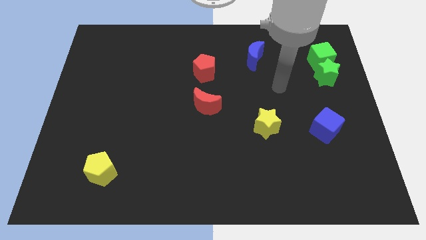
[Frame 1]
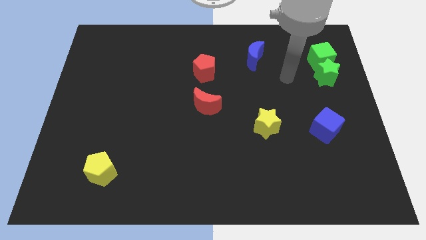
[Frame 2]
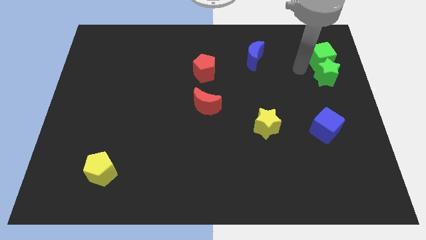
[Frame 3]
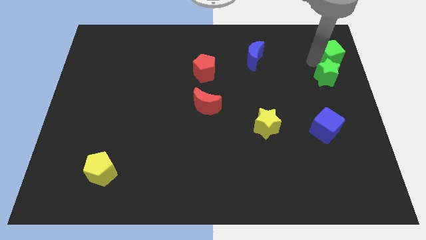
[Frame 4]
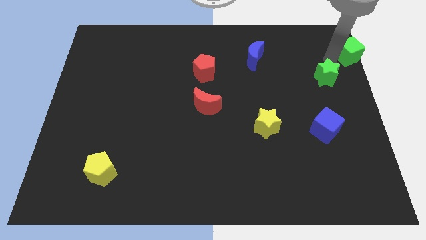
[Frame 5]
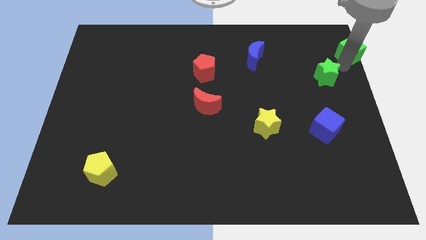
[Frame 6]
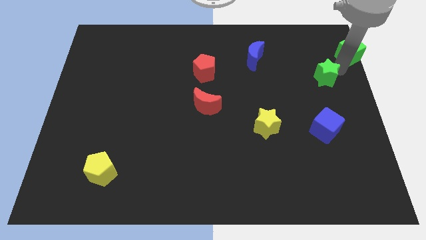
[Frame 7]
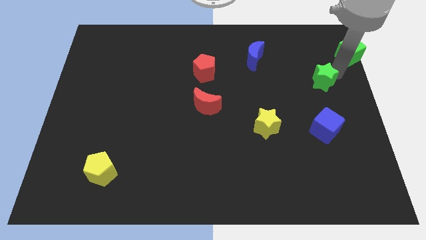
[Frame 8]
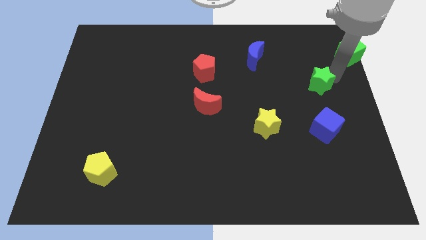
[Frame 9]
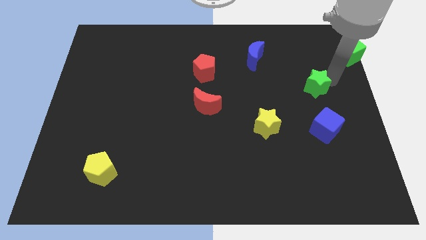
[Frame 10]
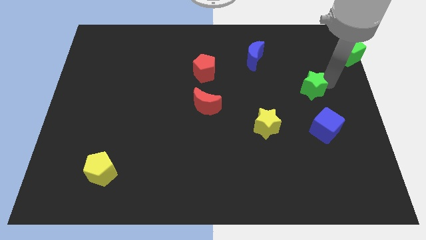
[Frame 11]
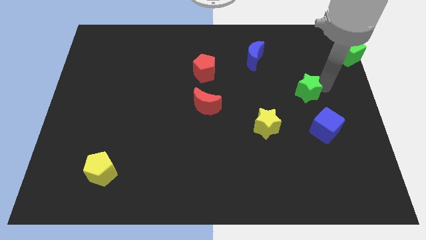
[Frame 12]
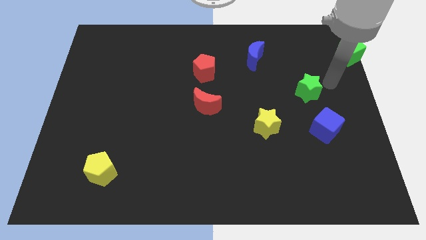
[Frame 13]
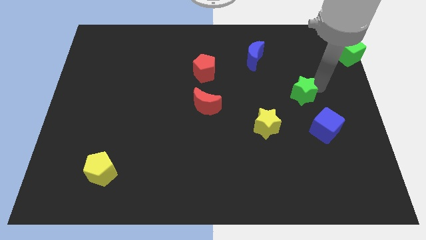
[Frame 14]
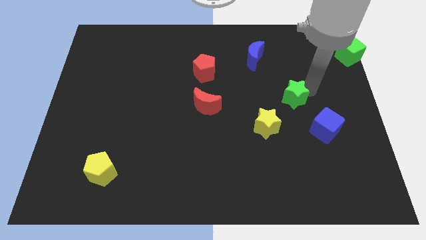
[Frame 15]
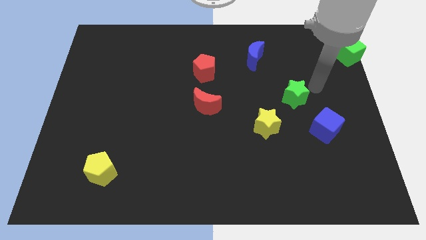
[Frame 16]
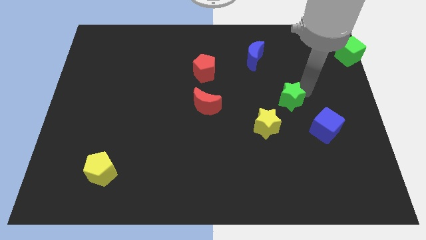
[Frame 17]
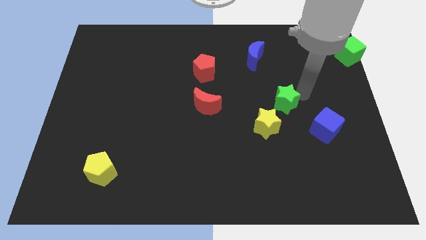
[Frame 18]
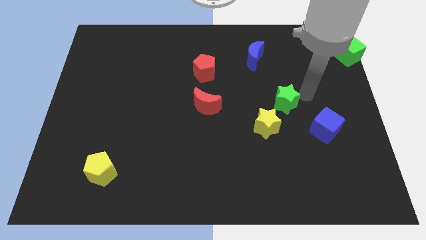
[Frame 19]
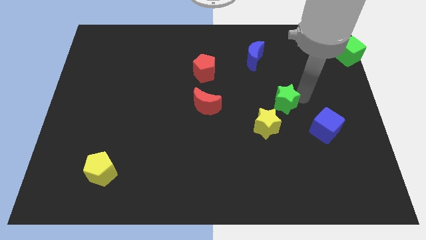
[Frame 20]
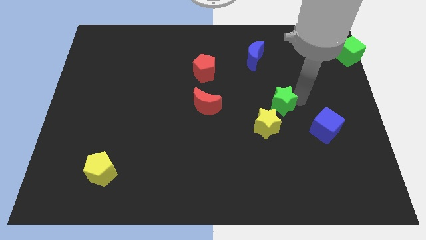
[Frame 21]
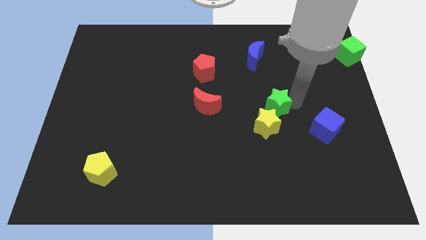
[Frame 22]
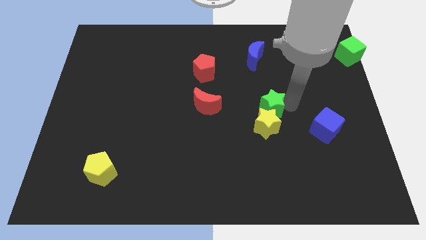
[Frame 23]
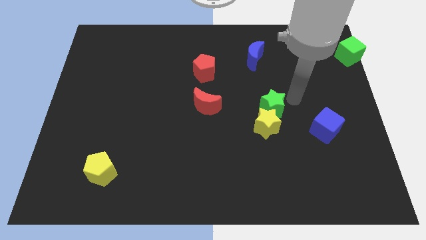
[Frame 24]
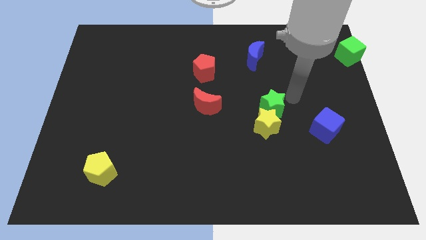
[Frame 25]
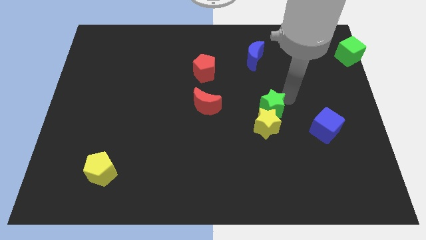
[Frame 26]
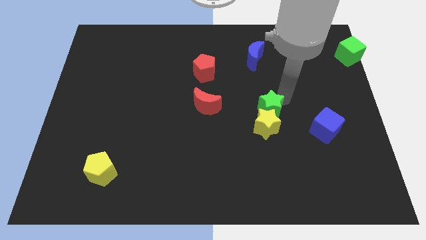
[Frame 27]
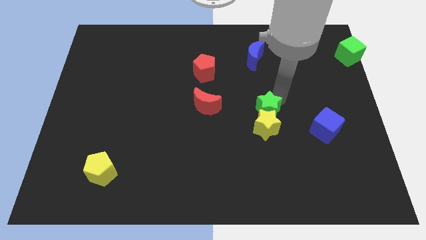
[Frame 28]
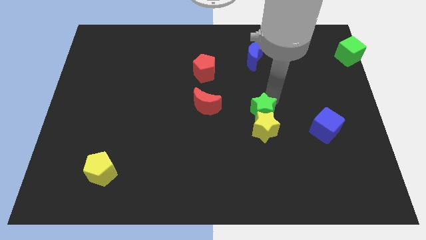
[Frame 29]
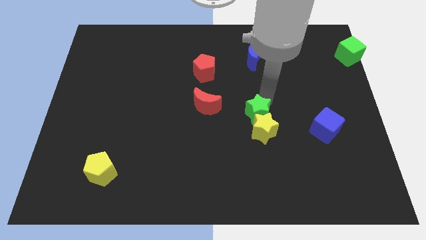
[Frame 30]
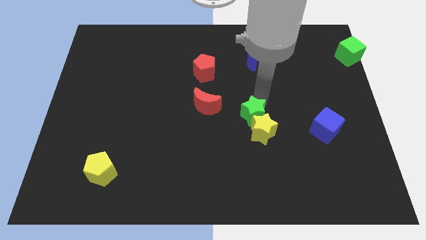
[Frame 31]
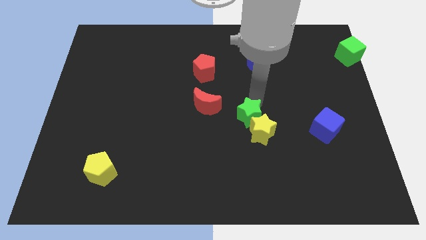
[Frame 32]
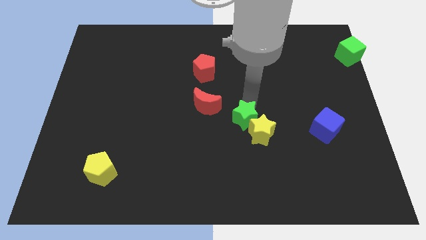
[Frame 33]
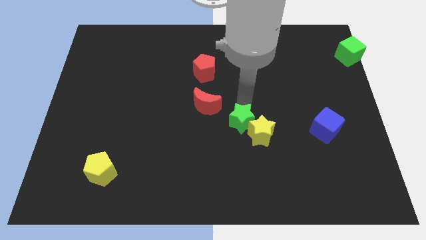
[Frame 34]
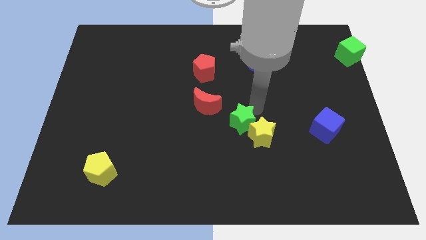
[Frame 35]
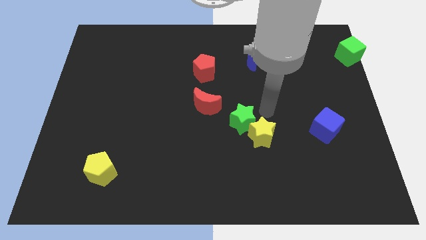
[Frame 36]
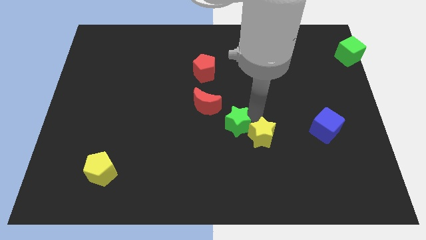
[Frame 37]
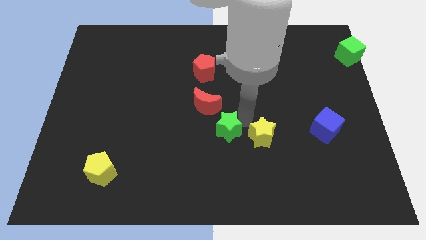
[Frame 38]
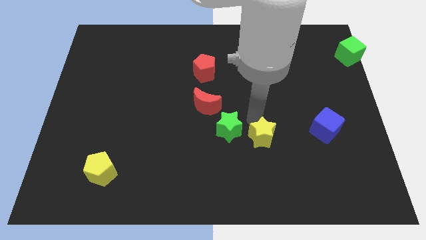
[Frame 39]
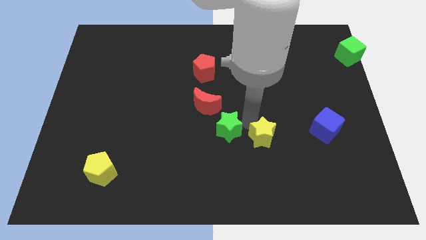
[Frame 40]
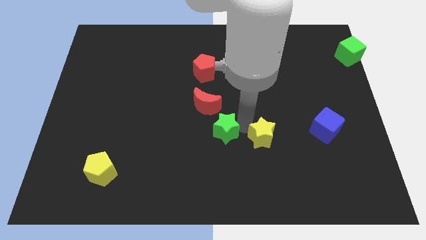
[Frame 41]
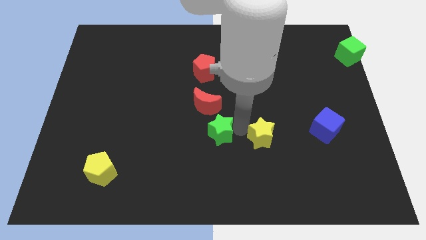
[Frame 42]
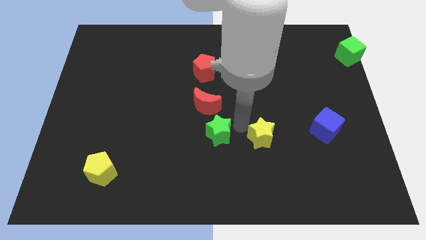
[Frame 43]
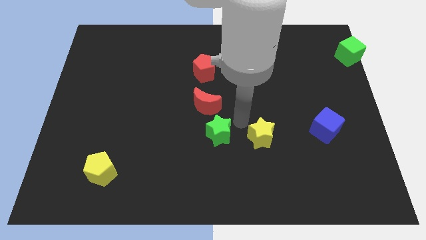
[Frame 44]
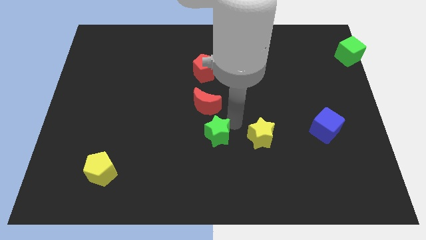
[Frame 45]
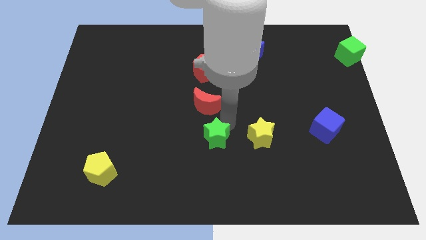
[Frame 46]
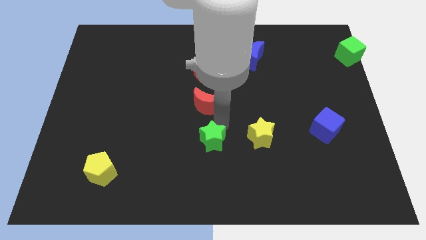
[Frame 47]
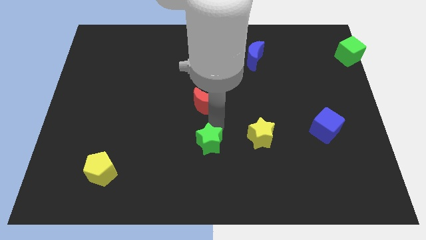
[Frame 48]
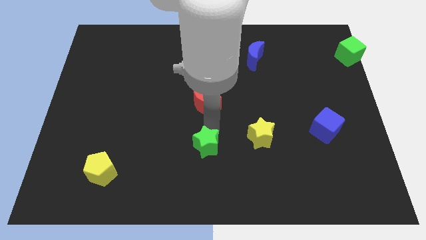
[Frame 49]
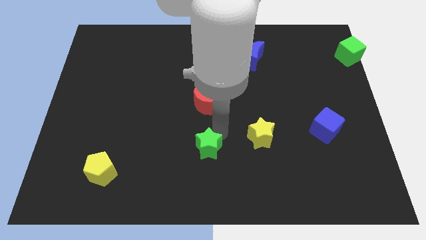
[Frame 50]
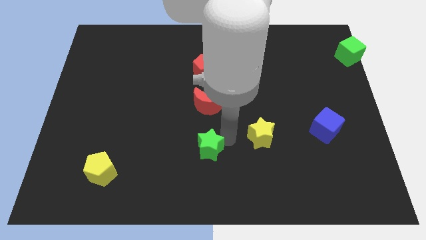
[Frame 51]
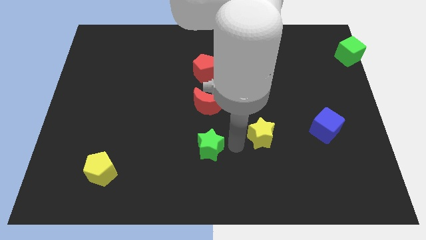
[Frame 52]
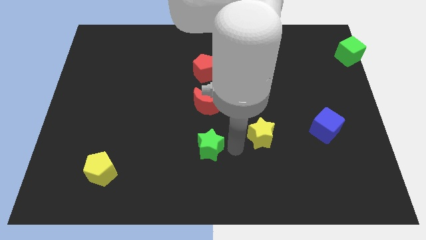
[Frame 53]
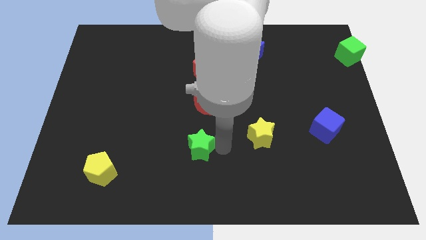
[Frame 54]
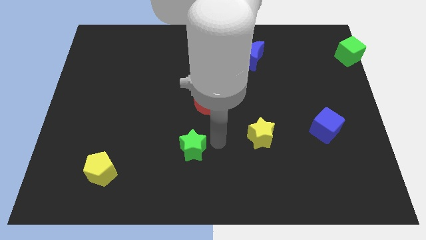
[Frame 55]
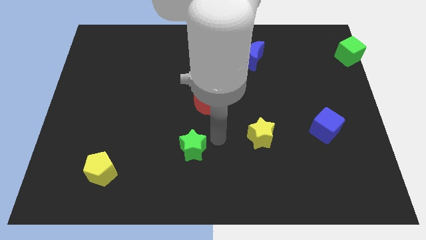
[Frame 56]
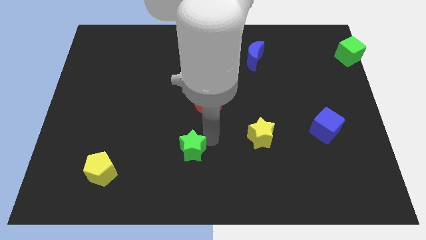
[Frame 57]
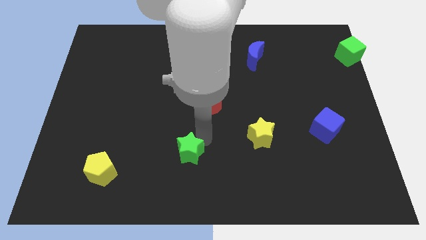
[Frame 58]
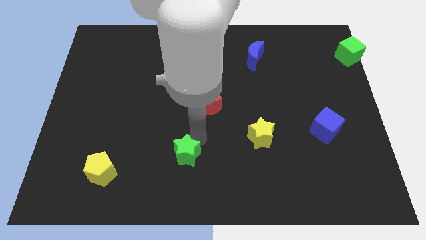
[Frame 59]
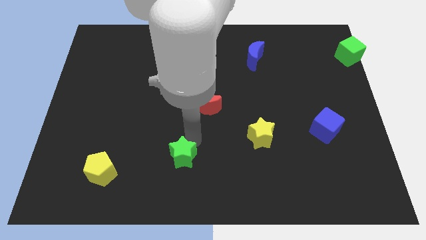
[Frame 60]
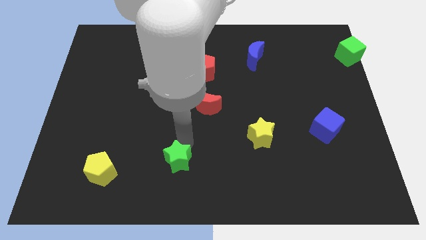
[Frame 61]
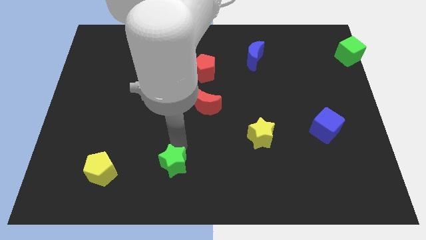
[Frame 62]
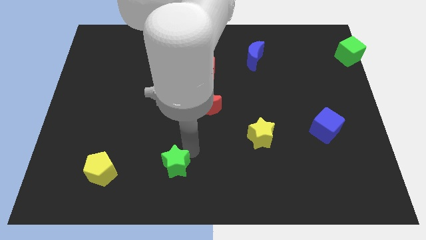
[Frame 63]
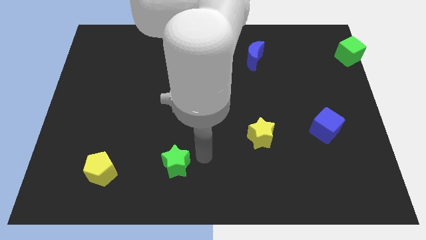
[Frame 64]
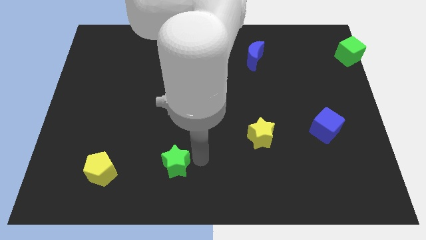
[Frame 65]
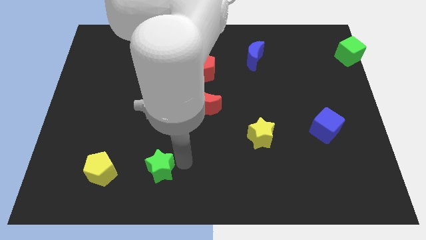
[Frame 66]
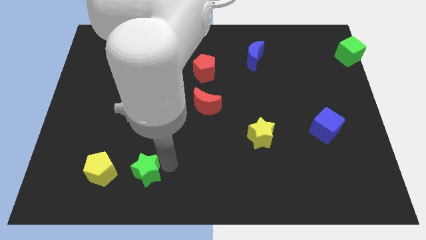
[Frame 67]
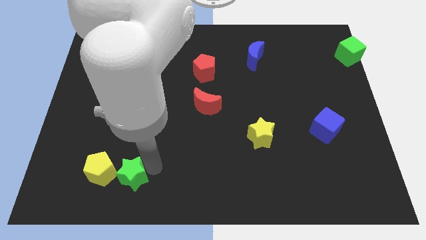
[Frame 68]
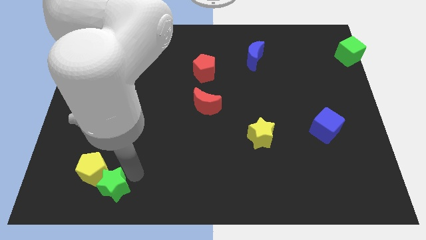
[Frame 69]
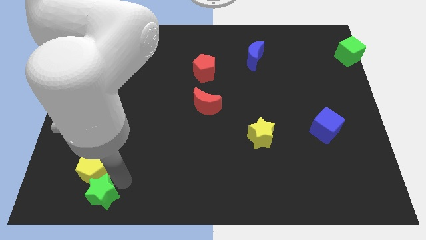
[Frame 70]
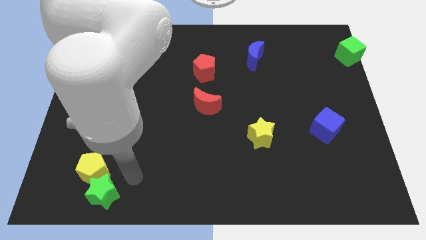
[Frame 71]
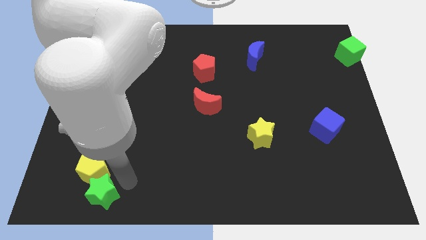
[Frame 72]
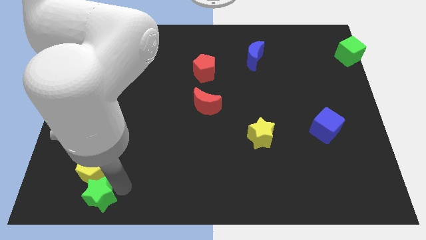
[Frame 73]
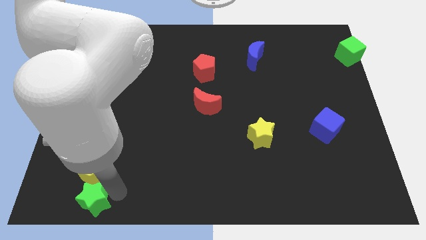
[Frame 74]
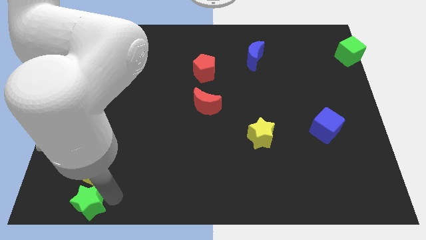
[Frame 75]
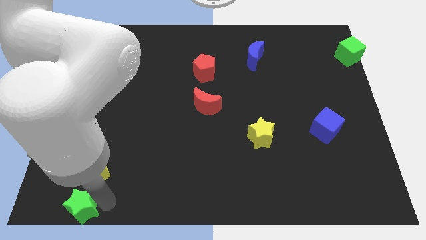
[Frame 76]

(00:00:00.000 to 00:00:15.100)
put the green star to the bottom left of the board
